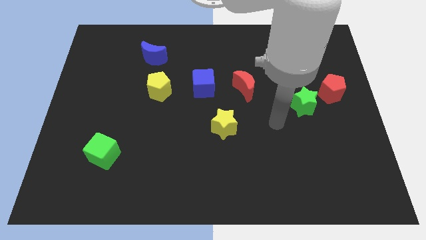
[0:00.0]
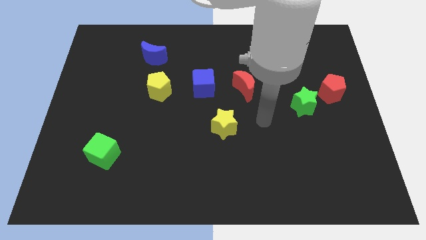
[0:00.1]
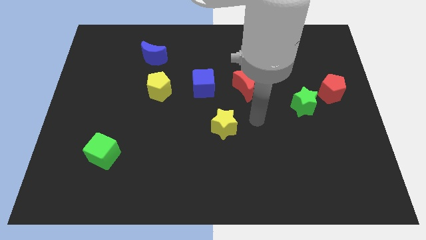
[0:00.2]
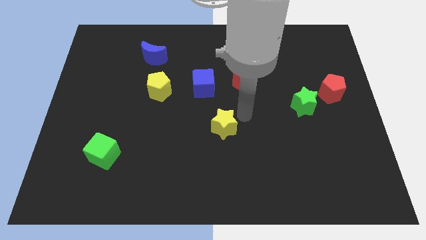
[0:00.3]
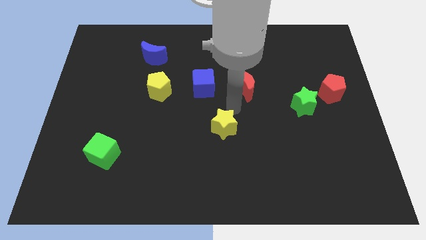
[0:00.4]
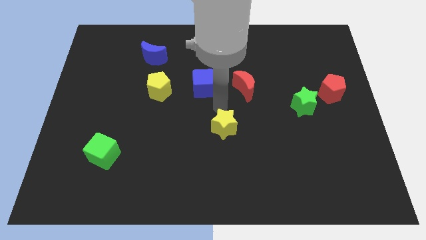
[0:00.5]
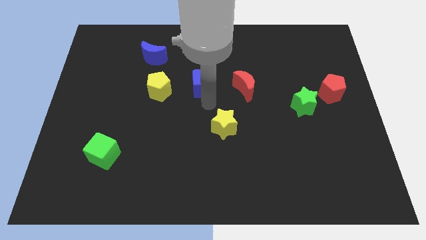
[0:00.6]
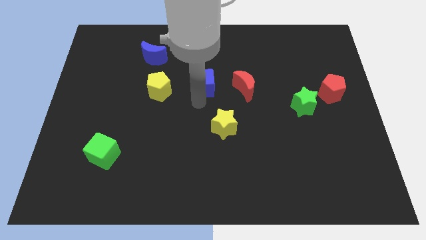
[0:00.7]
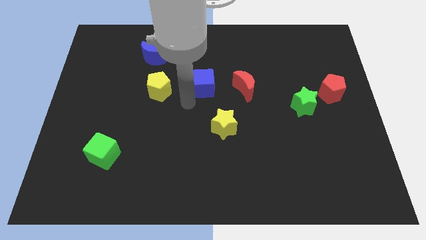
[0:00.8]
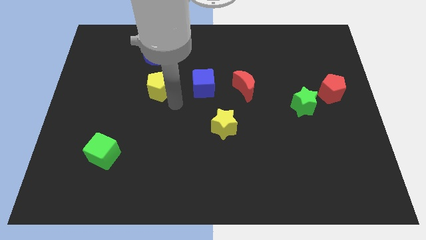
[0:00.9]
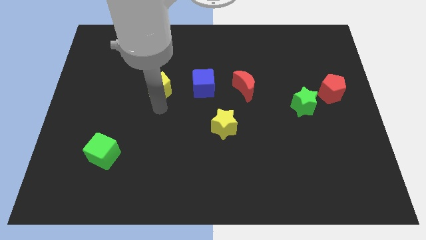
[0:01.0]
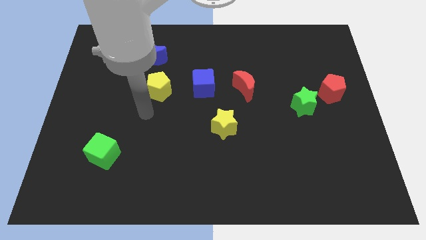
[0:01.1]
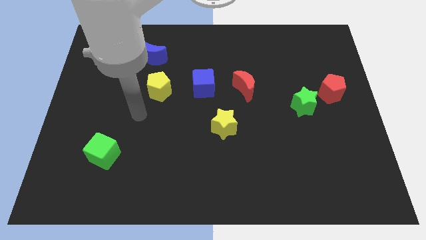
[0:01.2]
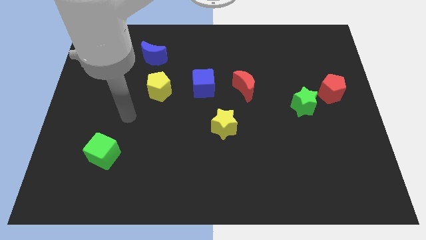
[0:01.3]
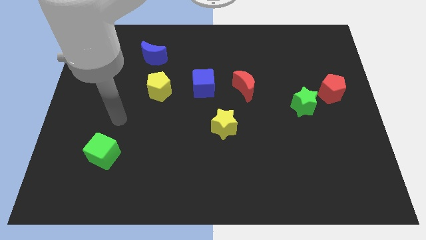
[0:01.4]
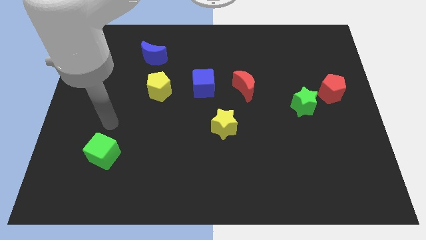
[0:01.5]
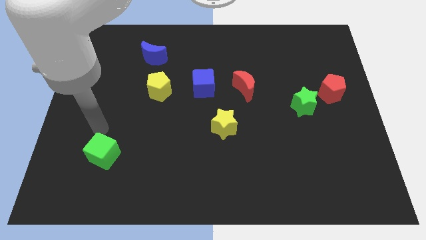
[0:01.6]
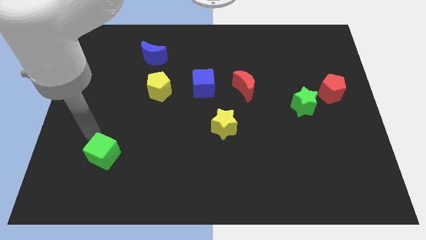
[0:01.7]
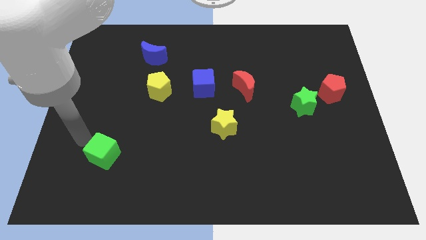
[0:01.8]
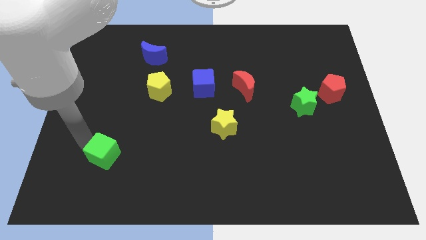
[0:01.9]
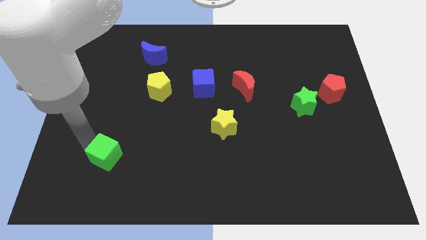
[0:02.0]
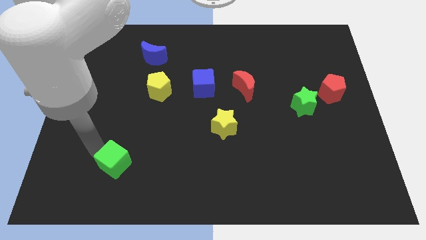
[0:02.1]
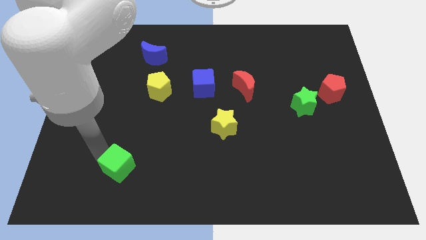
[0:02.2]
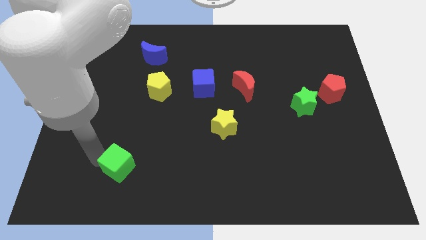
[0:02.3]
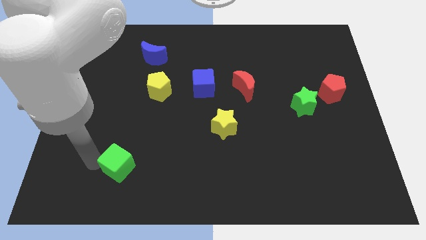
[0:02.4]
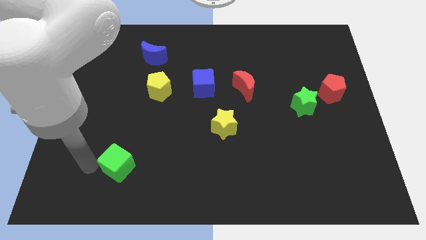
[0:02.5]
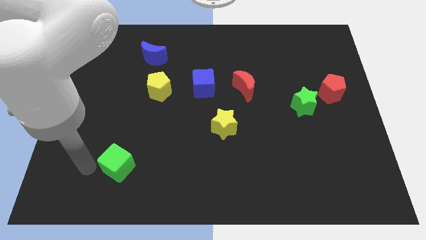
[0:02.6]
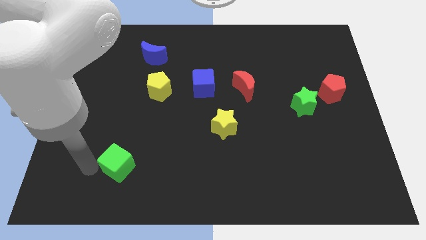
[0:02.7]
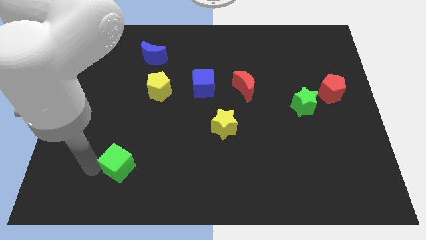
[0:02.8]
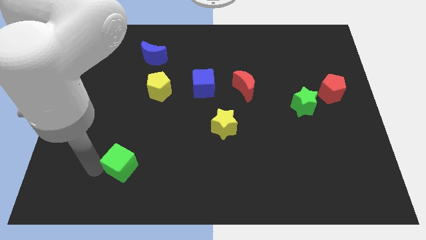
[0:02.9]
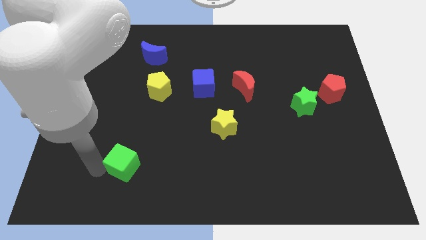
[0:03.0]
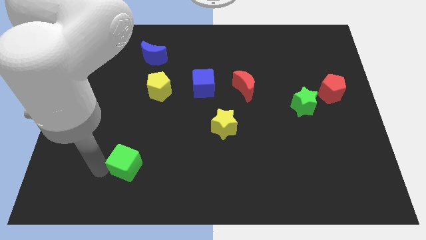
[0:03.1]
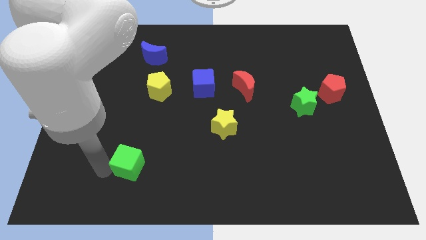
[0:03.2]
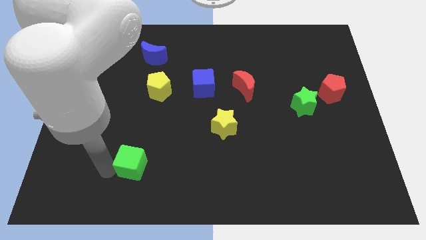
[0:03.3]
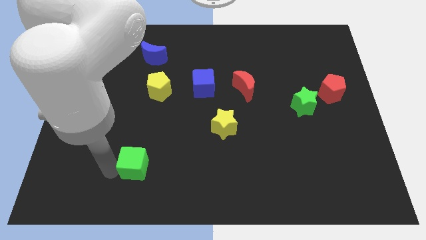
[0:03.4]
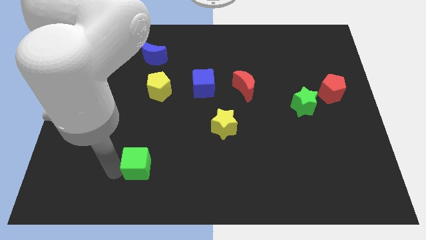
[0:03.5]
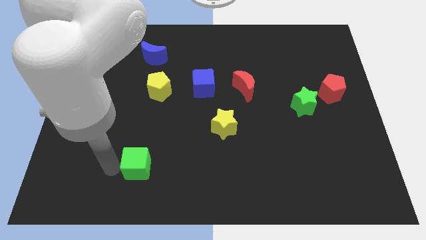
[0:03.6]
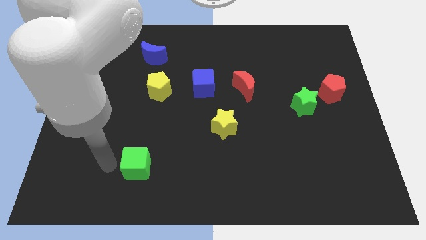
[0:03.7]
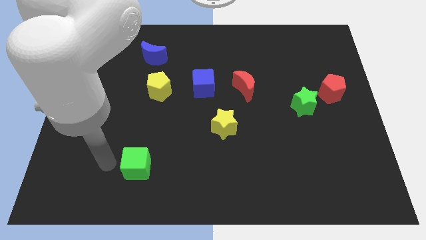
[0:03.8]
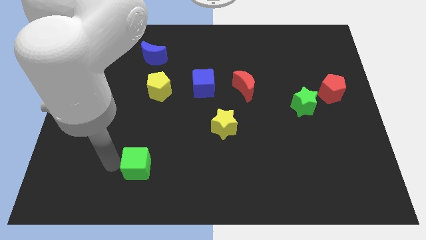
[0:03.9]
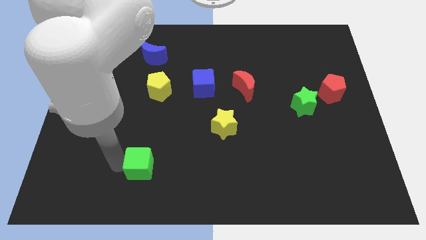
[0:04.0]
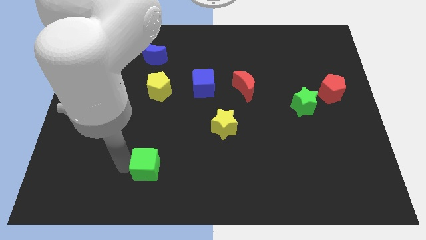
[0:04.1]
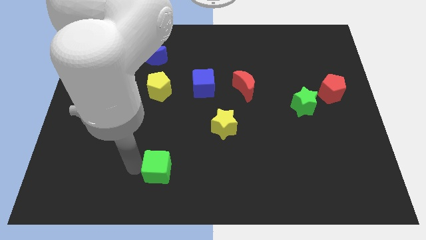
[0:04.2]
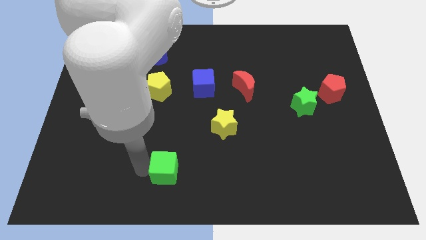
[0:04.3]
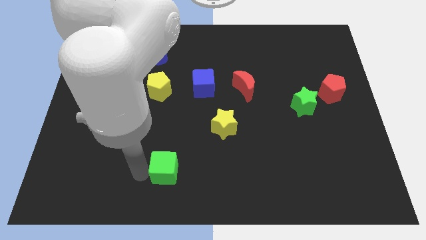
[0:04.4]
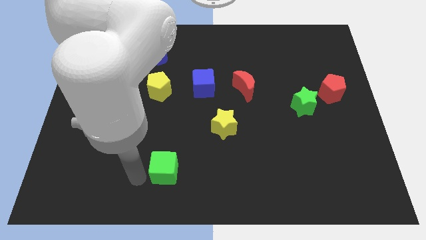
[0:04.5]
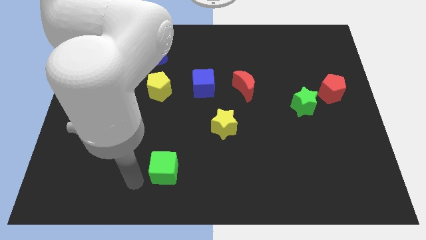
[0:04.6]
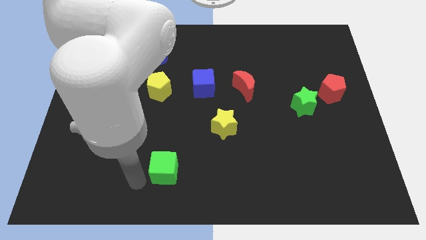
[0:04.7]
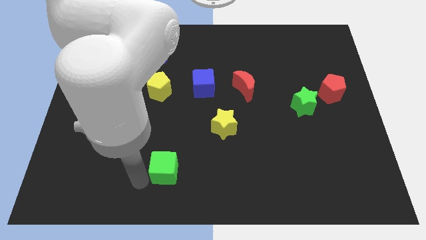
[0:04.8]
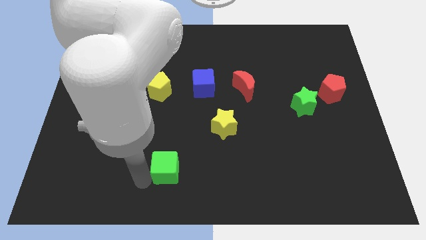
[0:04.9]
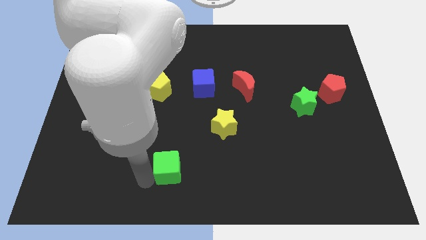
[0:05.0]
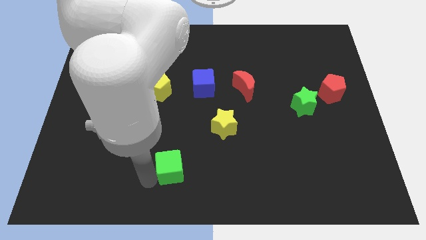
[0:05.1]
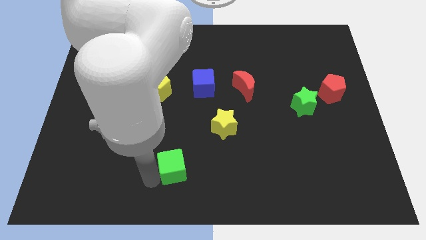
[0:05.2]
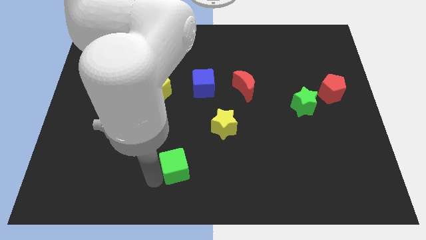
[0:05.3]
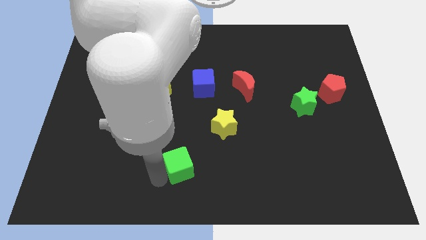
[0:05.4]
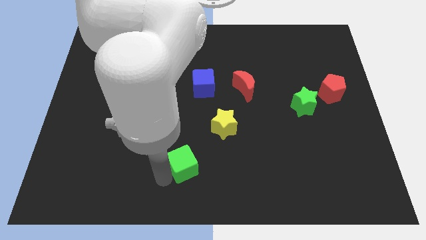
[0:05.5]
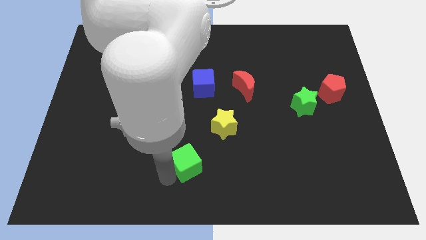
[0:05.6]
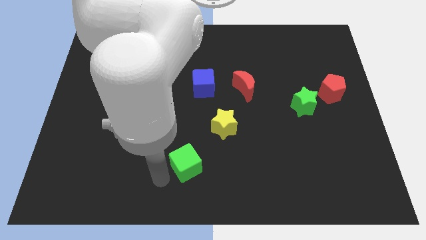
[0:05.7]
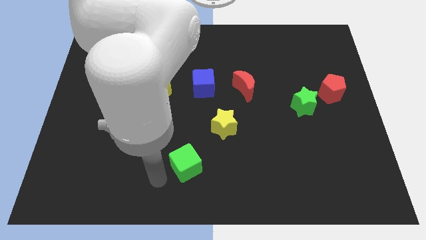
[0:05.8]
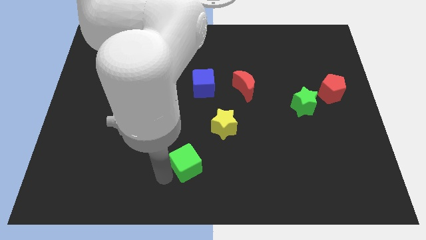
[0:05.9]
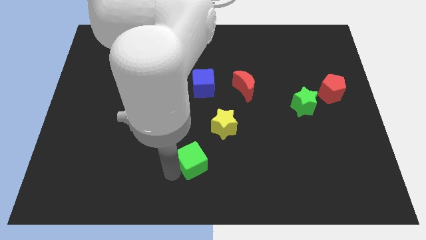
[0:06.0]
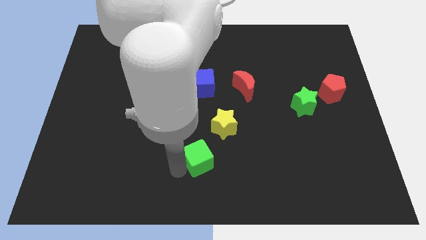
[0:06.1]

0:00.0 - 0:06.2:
slide the green cube right

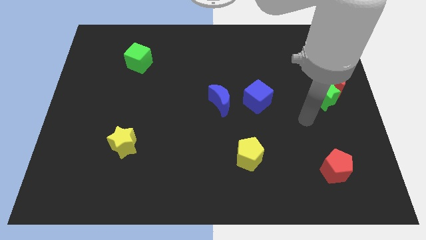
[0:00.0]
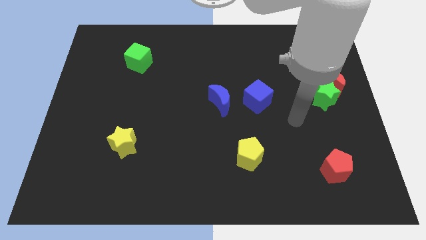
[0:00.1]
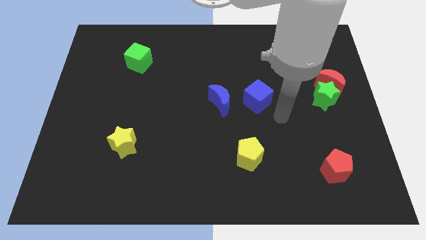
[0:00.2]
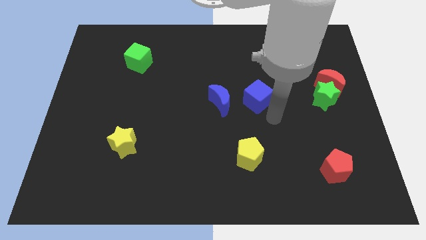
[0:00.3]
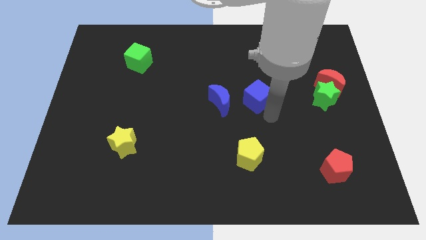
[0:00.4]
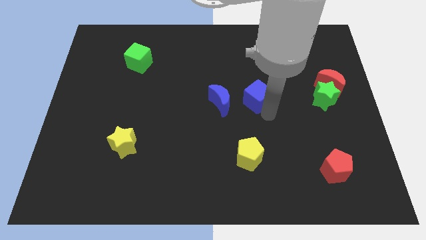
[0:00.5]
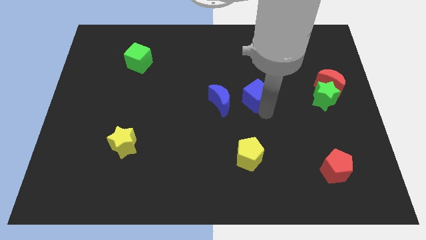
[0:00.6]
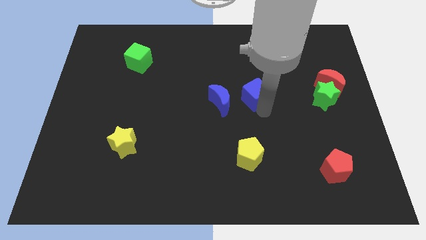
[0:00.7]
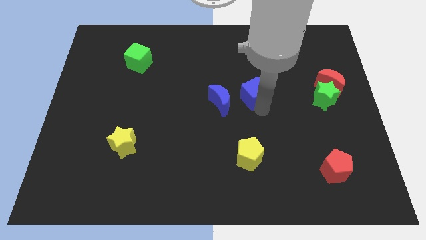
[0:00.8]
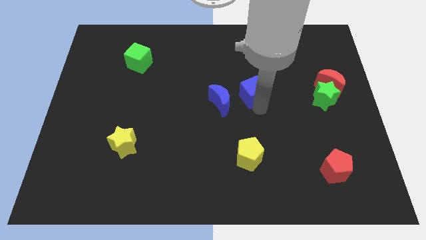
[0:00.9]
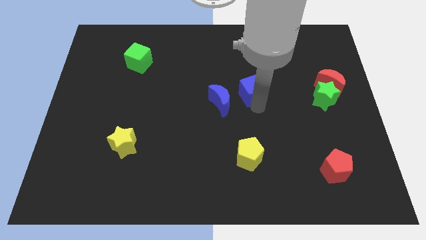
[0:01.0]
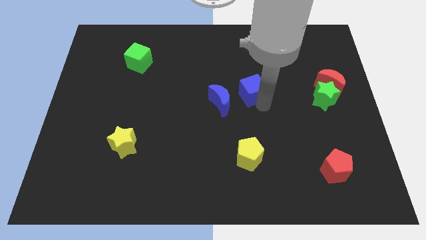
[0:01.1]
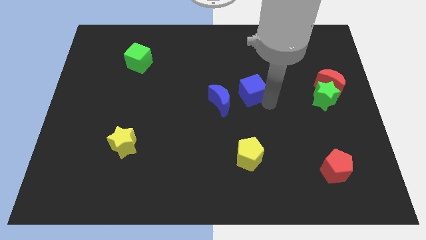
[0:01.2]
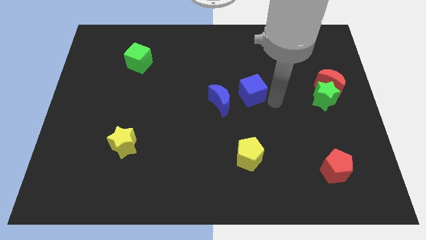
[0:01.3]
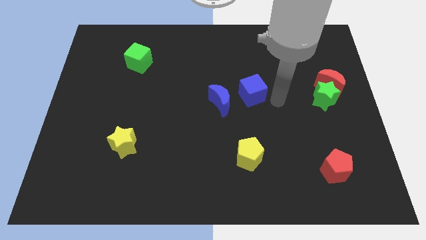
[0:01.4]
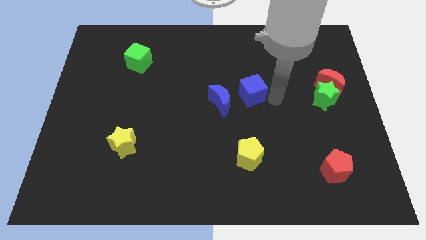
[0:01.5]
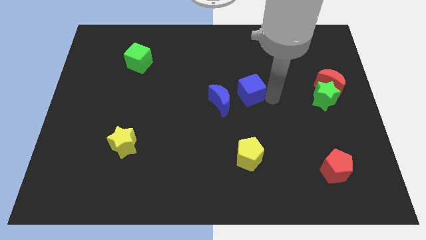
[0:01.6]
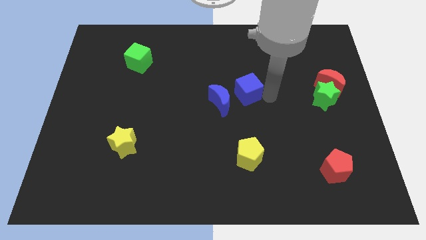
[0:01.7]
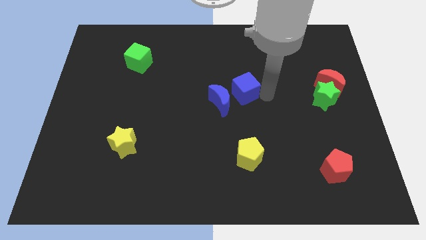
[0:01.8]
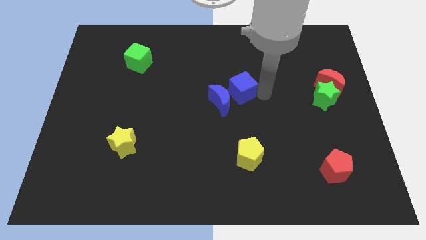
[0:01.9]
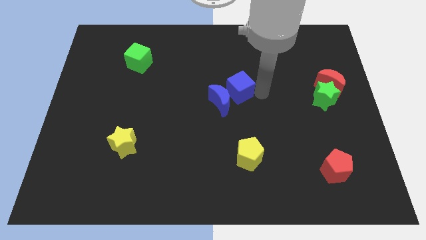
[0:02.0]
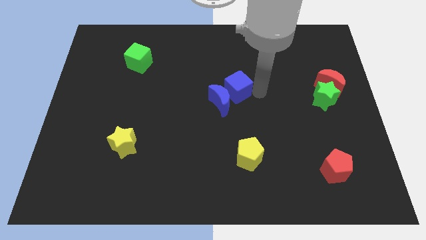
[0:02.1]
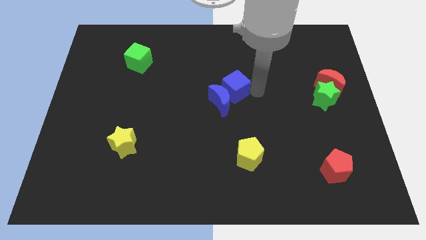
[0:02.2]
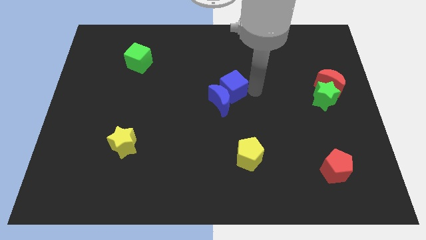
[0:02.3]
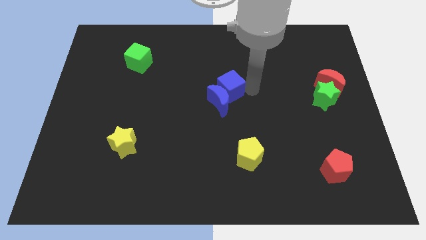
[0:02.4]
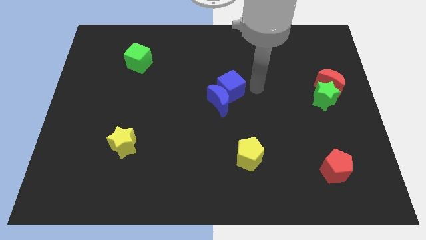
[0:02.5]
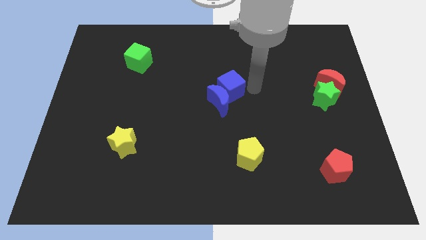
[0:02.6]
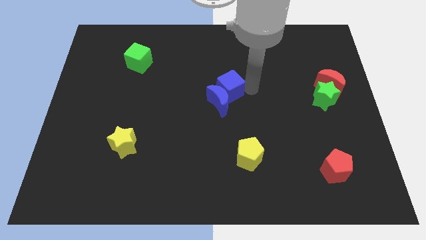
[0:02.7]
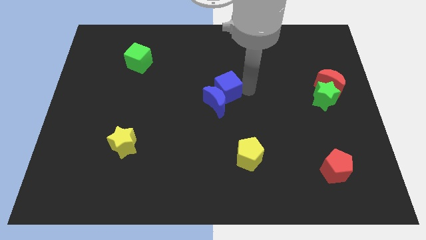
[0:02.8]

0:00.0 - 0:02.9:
move the blue cube somewhat left
